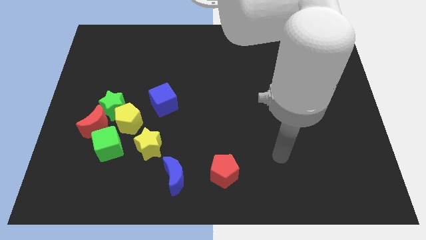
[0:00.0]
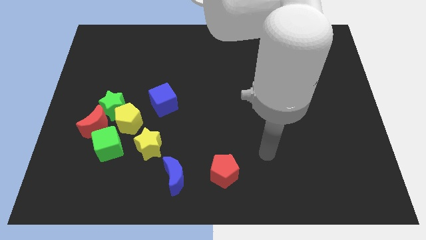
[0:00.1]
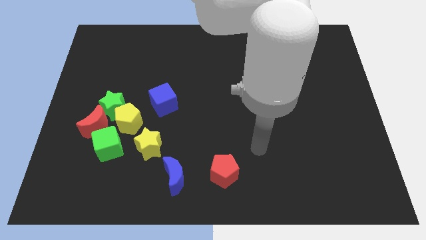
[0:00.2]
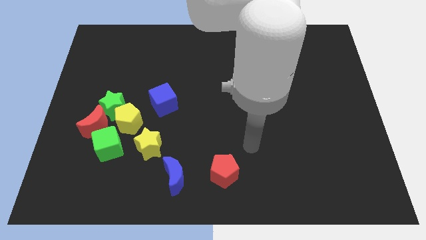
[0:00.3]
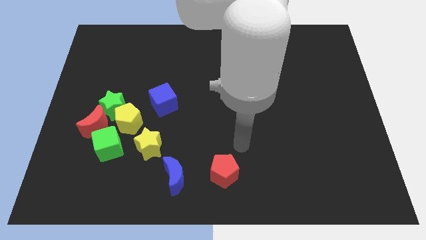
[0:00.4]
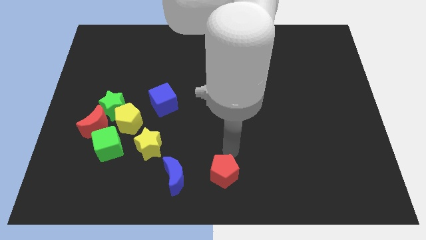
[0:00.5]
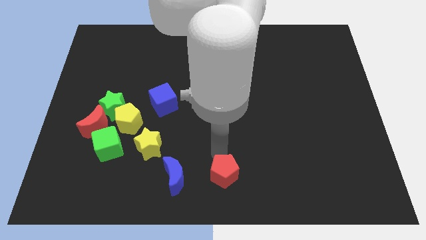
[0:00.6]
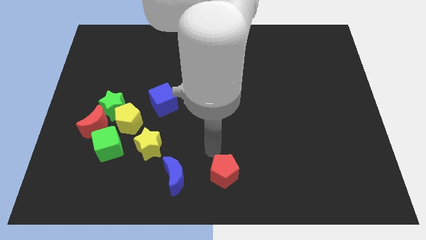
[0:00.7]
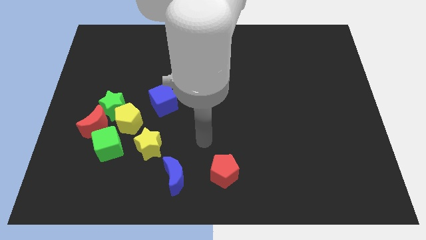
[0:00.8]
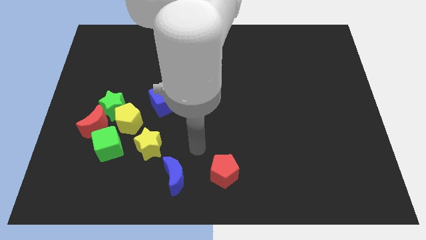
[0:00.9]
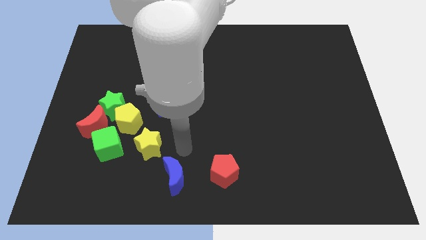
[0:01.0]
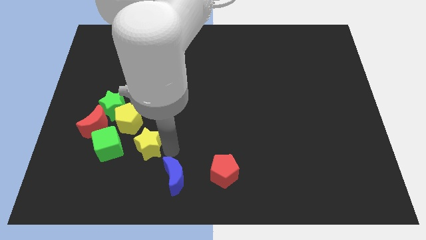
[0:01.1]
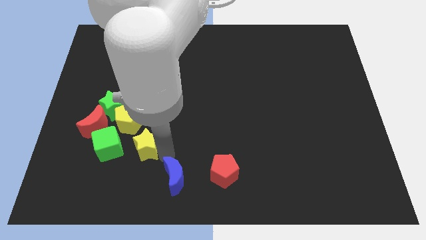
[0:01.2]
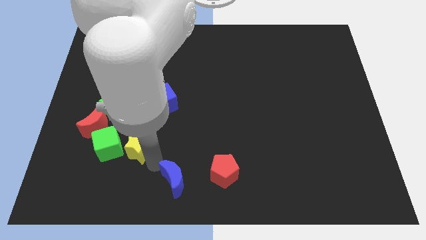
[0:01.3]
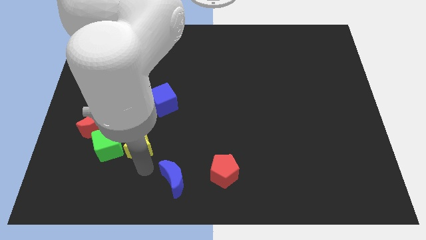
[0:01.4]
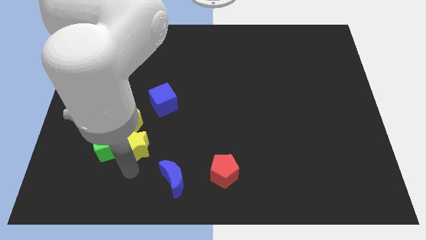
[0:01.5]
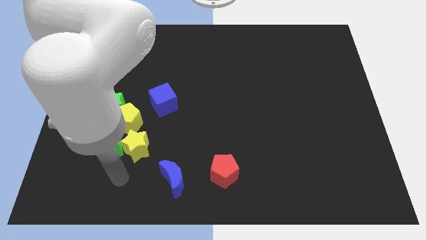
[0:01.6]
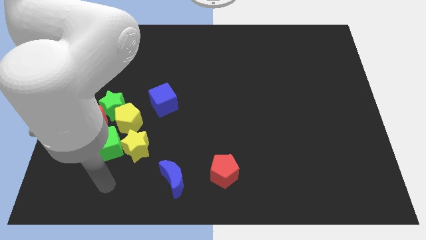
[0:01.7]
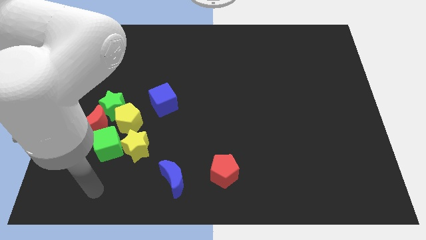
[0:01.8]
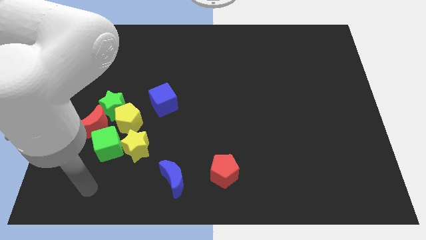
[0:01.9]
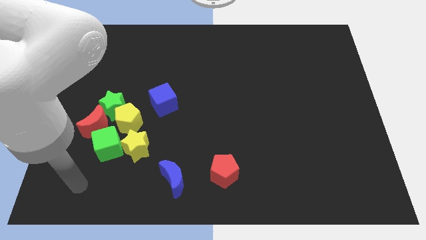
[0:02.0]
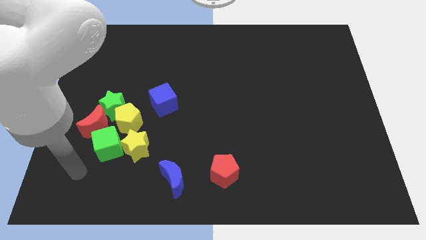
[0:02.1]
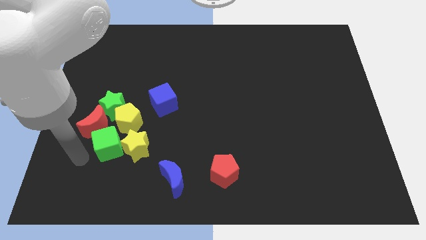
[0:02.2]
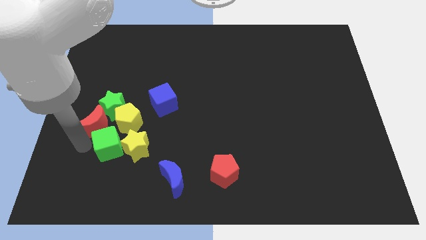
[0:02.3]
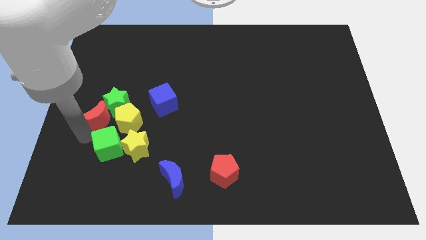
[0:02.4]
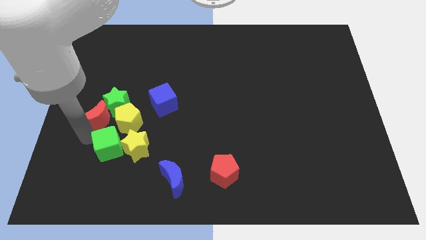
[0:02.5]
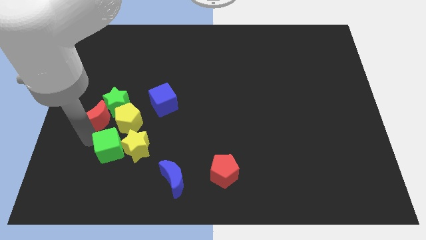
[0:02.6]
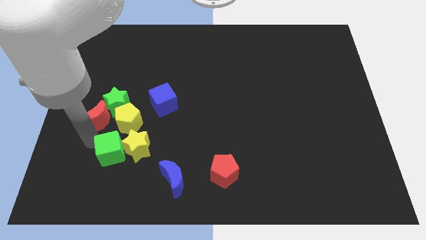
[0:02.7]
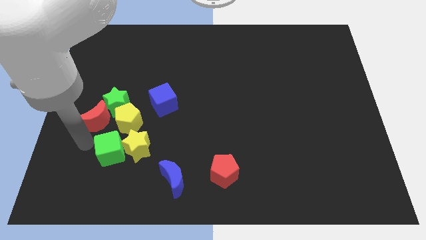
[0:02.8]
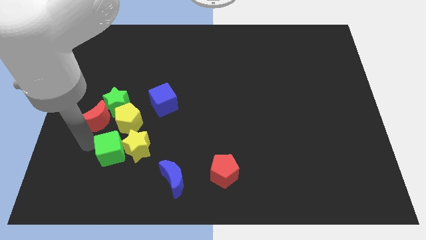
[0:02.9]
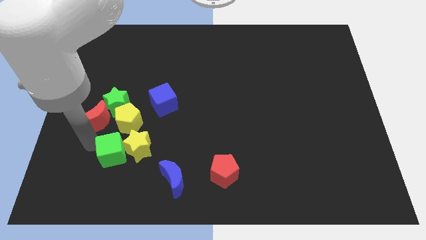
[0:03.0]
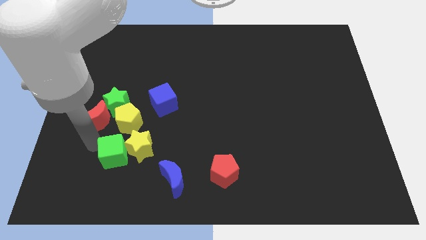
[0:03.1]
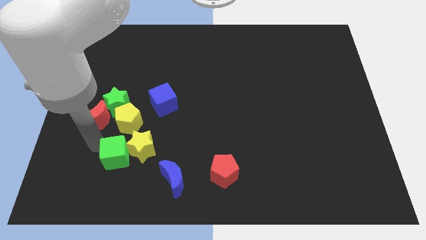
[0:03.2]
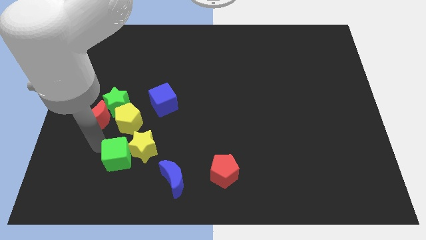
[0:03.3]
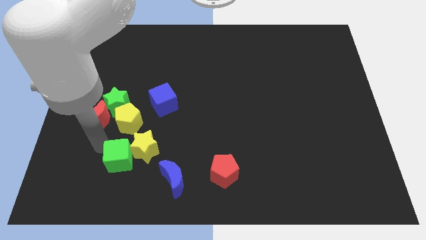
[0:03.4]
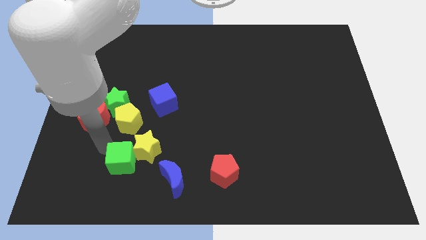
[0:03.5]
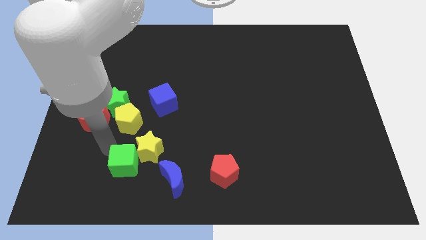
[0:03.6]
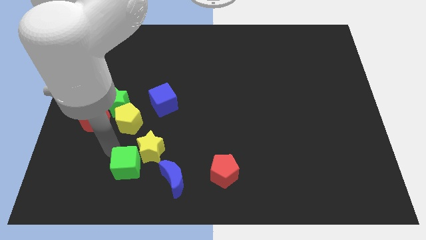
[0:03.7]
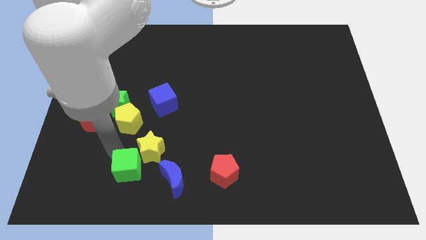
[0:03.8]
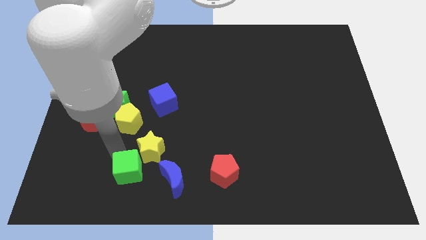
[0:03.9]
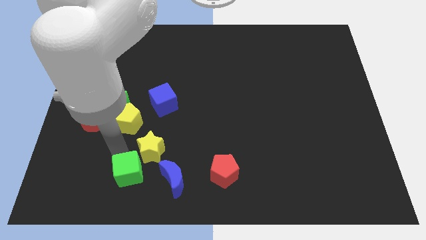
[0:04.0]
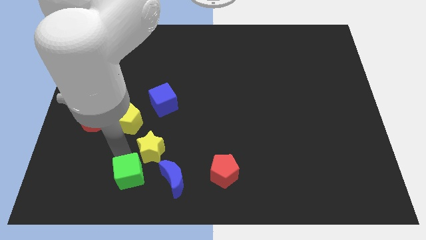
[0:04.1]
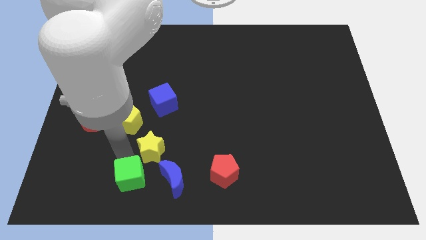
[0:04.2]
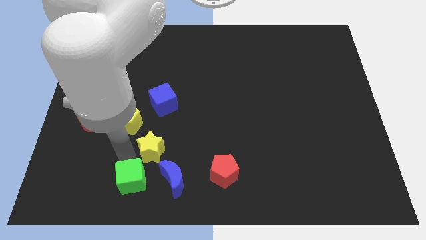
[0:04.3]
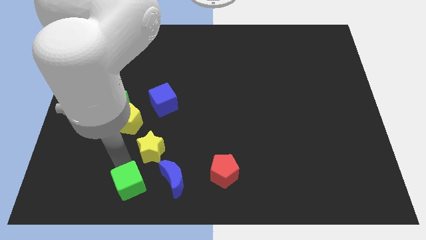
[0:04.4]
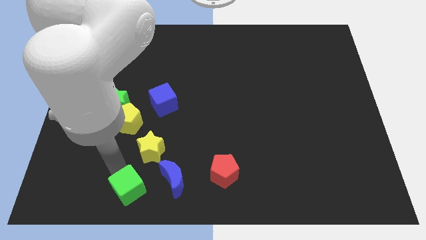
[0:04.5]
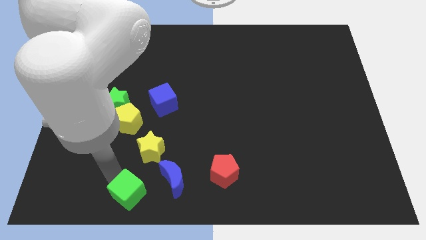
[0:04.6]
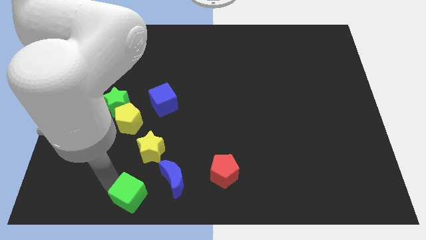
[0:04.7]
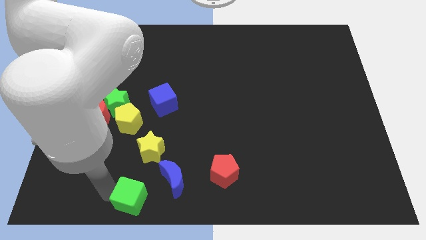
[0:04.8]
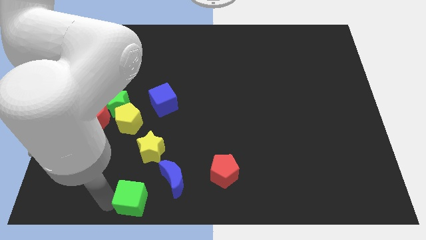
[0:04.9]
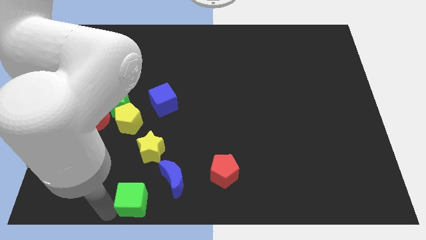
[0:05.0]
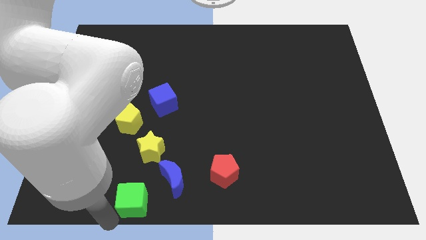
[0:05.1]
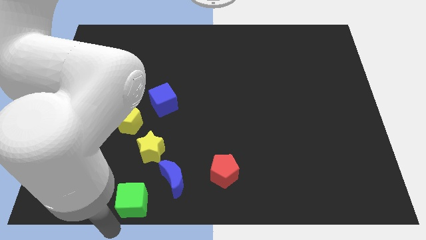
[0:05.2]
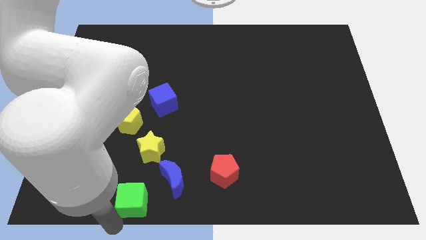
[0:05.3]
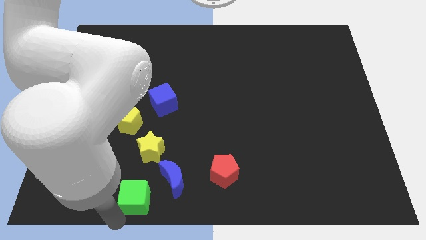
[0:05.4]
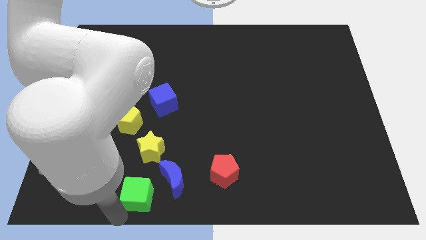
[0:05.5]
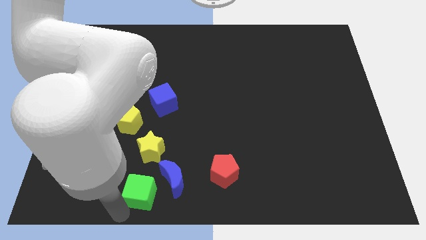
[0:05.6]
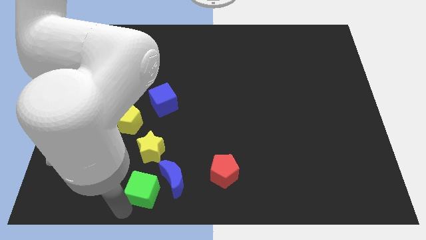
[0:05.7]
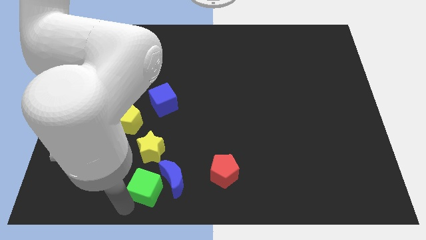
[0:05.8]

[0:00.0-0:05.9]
push the green cube next to the blue moon

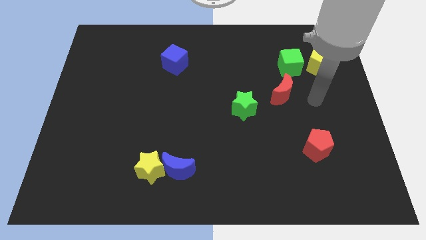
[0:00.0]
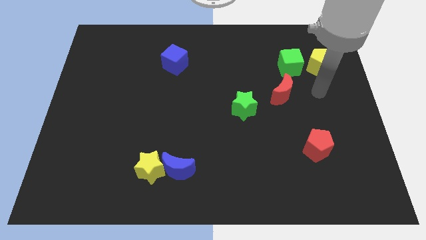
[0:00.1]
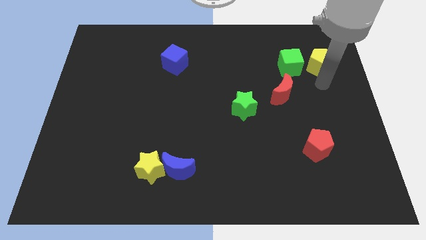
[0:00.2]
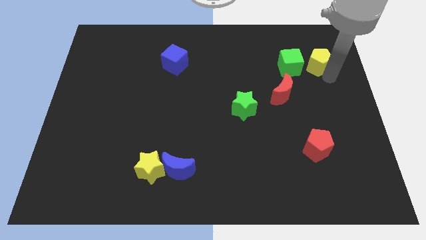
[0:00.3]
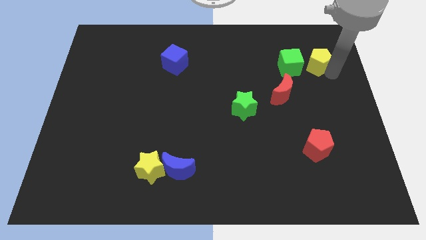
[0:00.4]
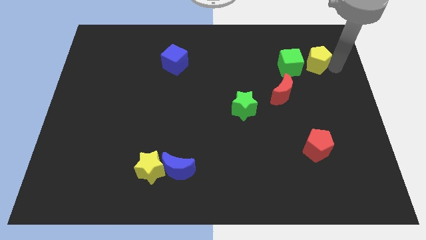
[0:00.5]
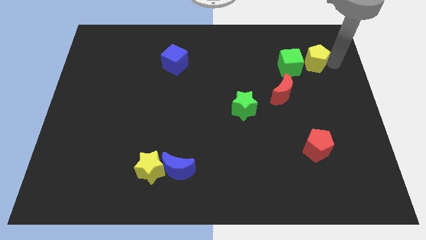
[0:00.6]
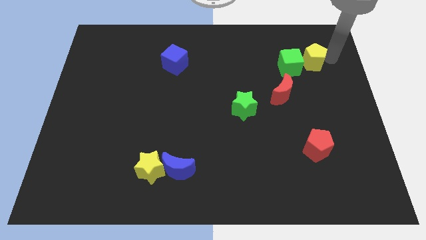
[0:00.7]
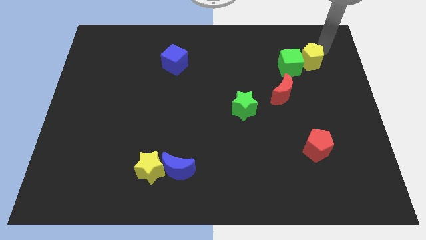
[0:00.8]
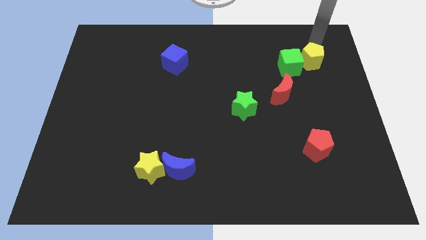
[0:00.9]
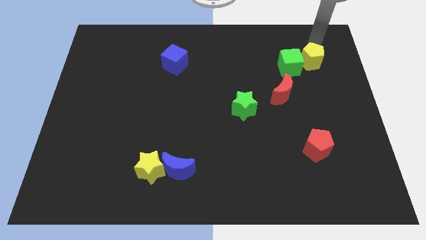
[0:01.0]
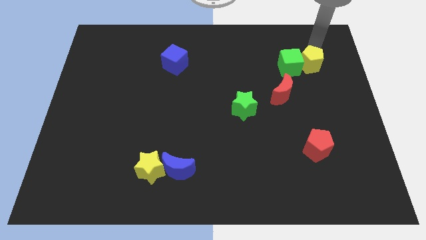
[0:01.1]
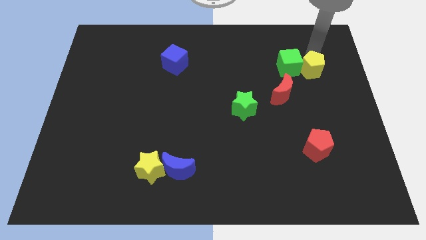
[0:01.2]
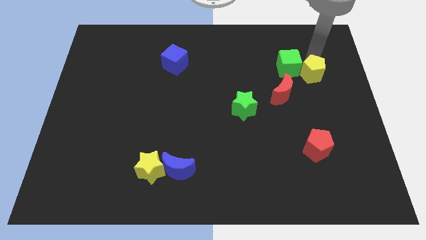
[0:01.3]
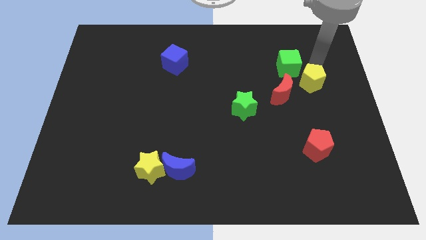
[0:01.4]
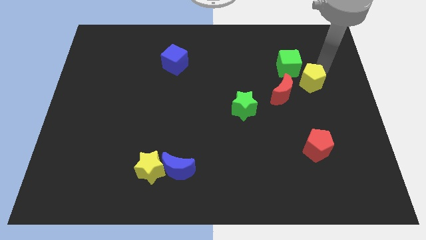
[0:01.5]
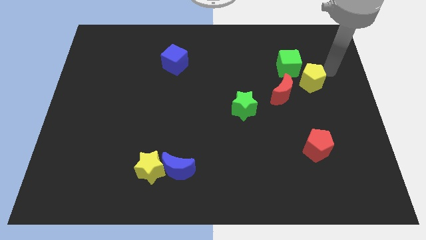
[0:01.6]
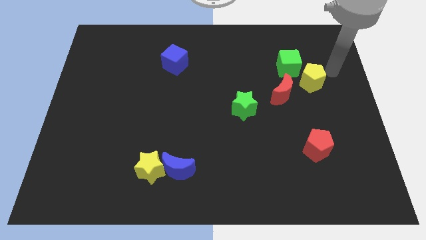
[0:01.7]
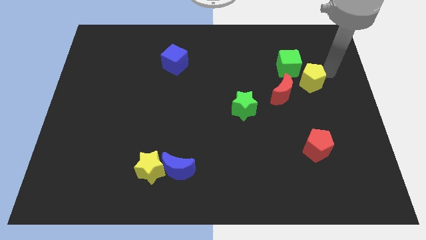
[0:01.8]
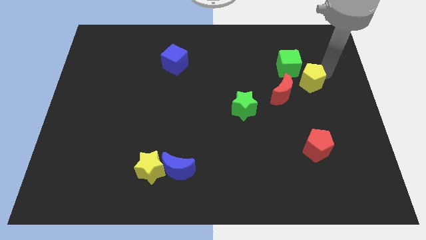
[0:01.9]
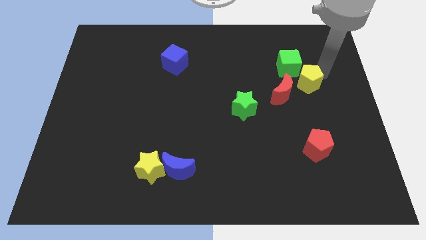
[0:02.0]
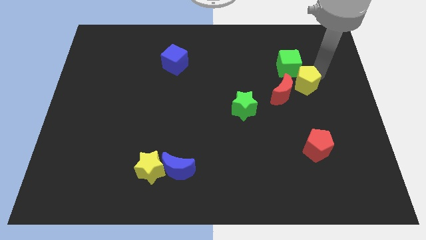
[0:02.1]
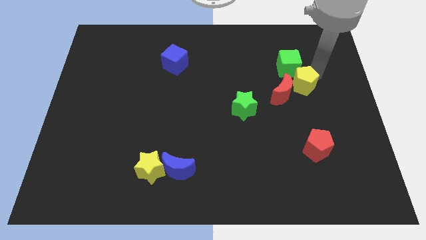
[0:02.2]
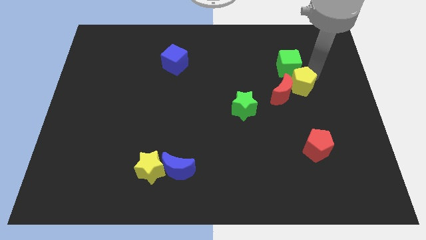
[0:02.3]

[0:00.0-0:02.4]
move the yellow pentagon to the red moon
